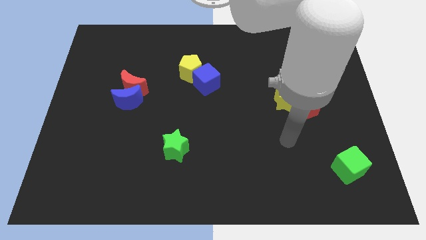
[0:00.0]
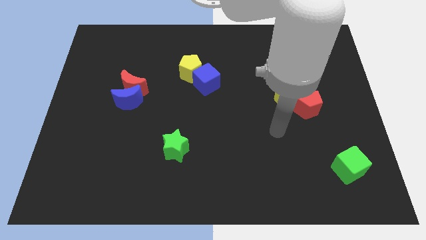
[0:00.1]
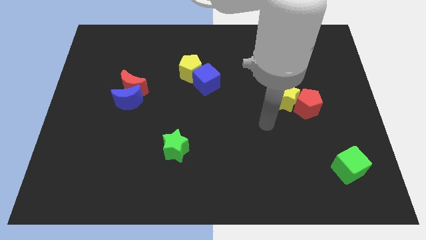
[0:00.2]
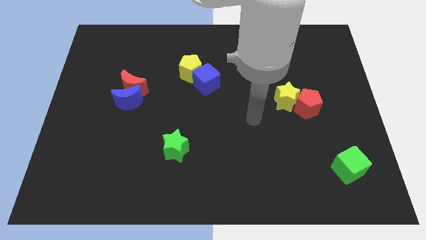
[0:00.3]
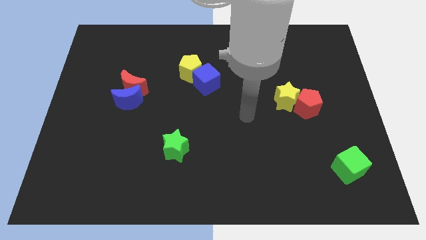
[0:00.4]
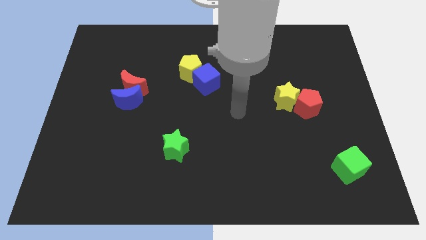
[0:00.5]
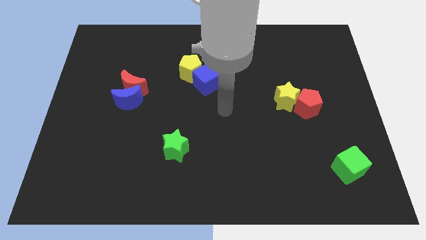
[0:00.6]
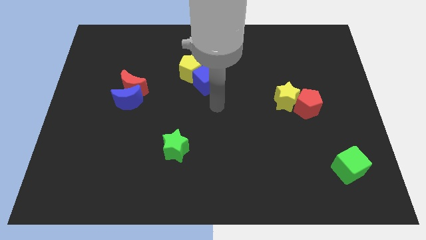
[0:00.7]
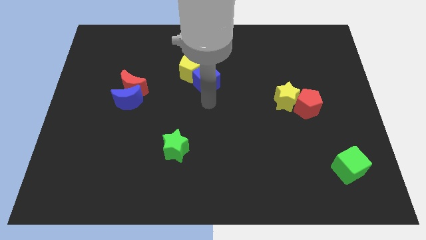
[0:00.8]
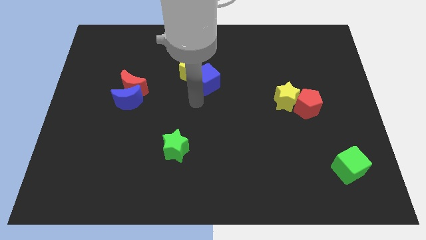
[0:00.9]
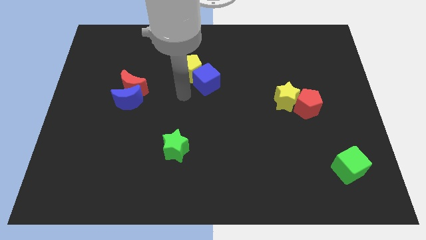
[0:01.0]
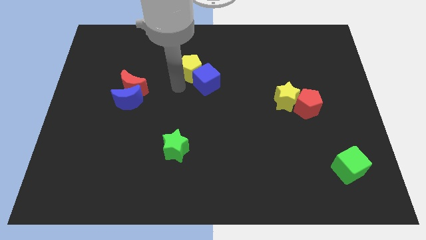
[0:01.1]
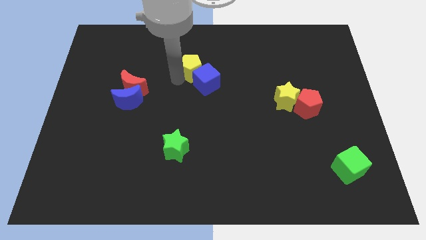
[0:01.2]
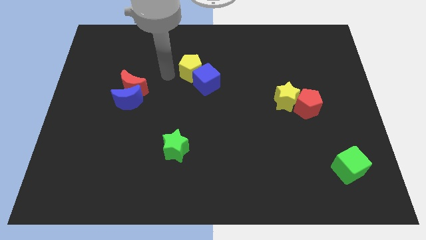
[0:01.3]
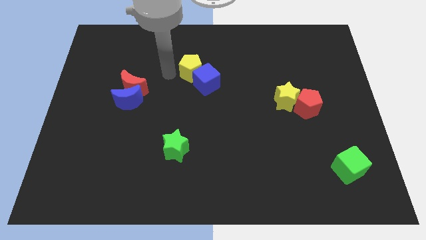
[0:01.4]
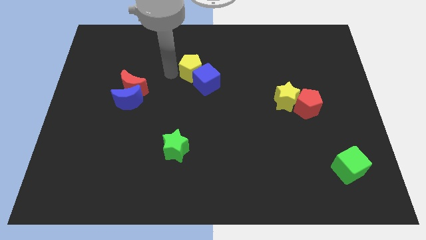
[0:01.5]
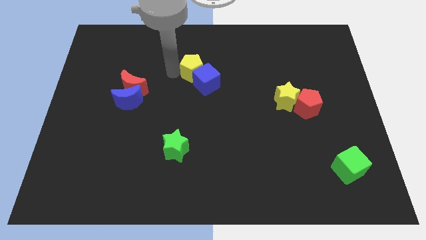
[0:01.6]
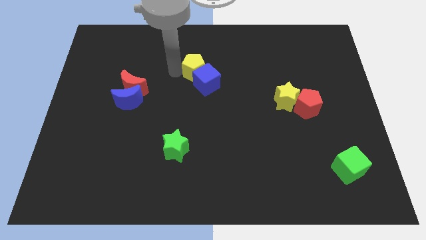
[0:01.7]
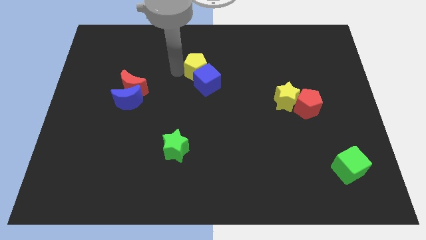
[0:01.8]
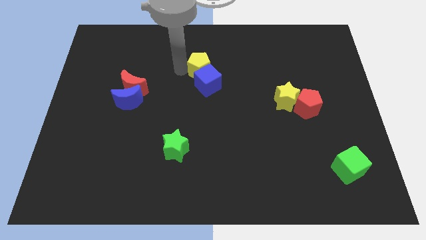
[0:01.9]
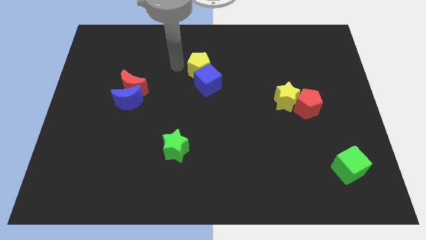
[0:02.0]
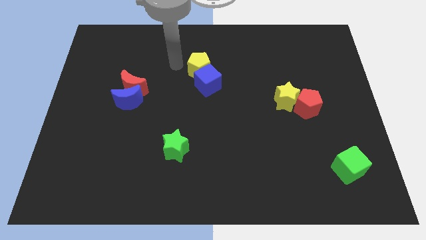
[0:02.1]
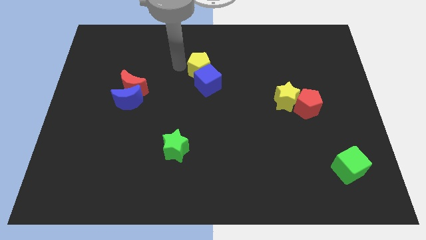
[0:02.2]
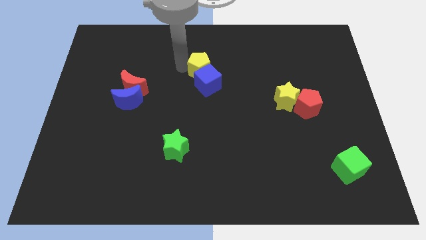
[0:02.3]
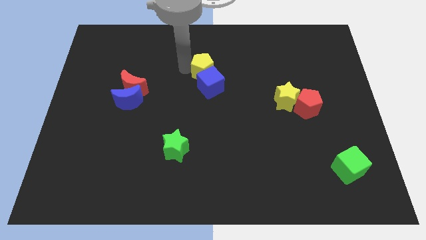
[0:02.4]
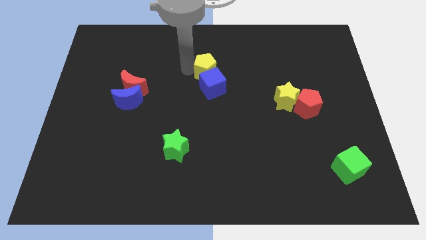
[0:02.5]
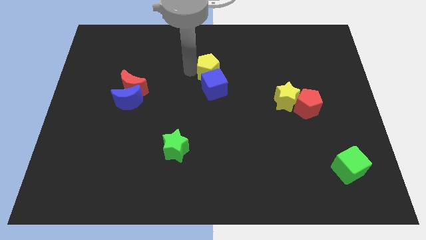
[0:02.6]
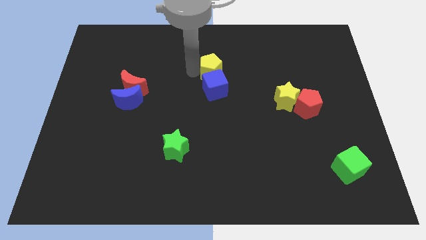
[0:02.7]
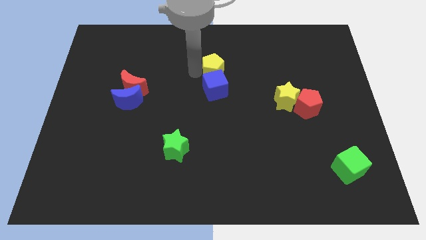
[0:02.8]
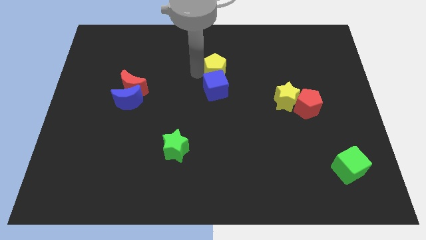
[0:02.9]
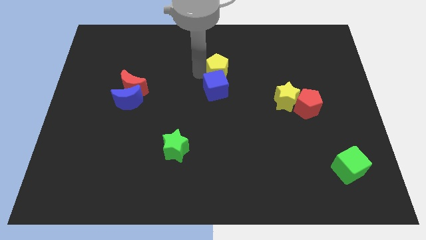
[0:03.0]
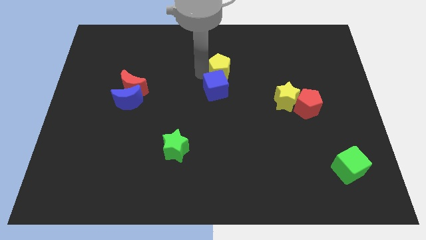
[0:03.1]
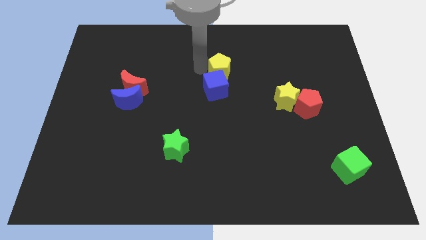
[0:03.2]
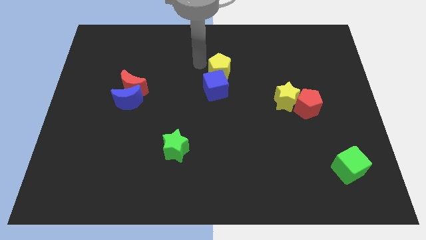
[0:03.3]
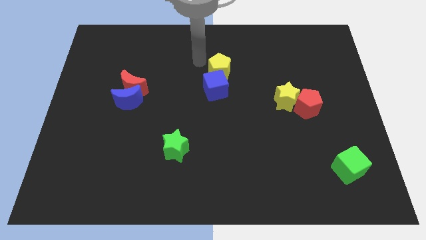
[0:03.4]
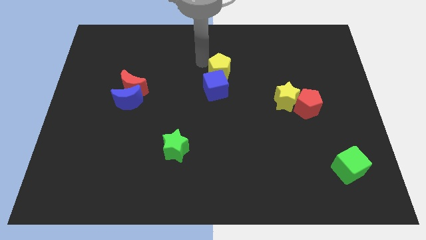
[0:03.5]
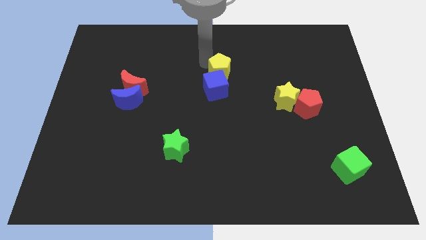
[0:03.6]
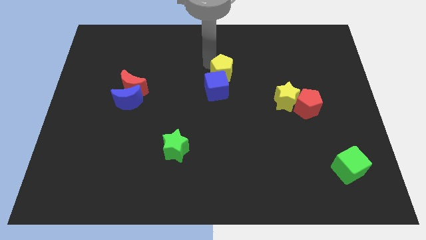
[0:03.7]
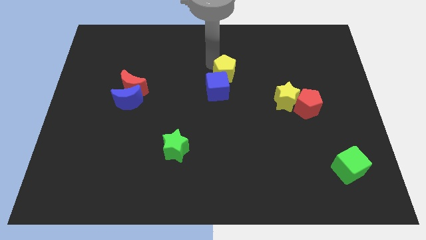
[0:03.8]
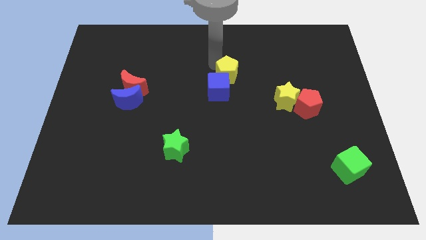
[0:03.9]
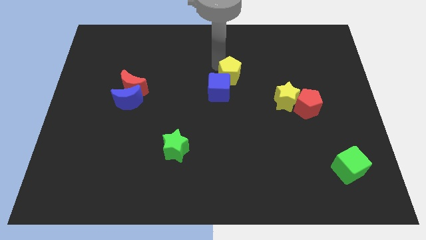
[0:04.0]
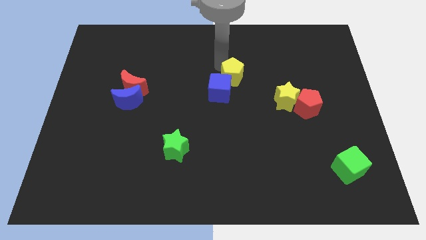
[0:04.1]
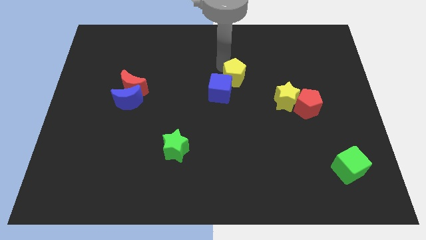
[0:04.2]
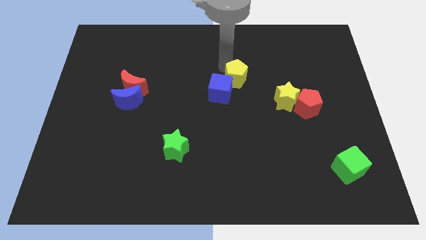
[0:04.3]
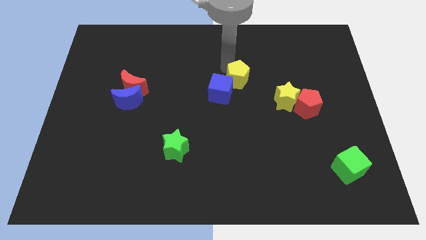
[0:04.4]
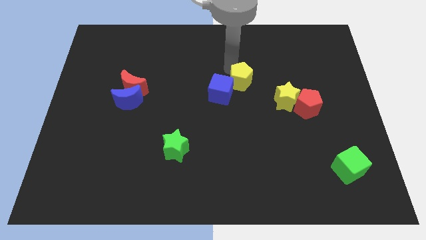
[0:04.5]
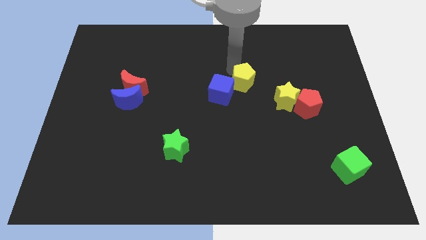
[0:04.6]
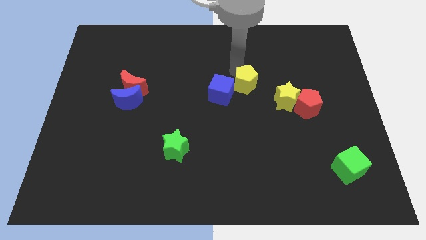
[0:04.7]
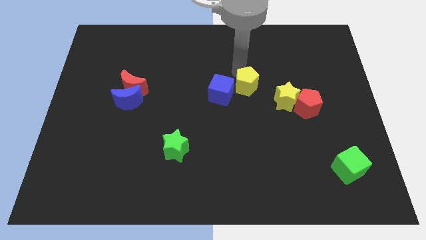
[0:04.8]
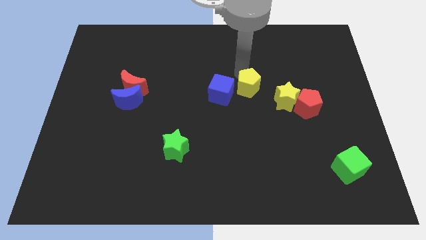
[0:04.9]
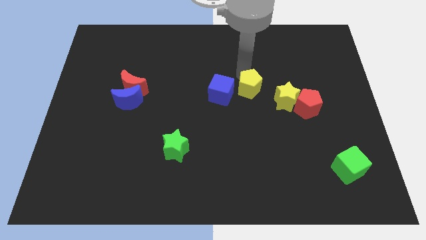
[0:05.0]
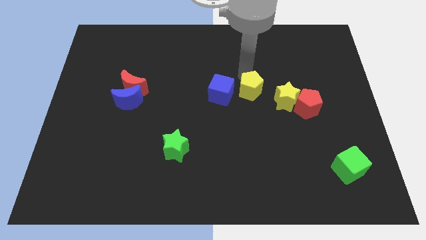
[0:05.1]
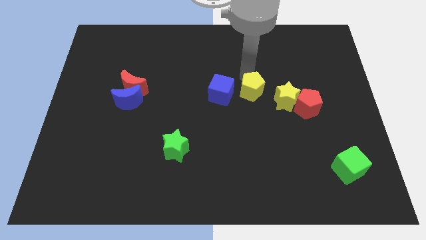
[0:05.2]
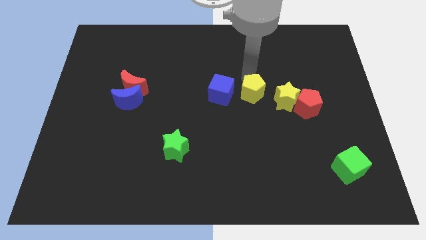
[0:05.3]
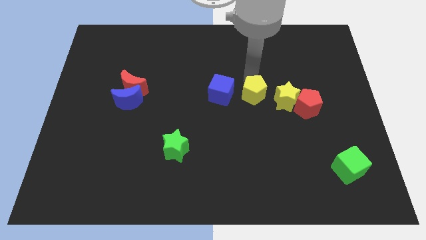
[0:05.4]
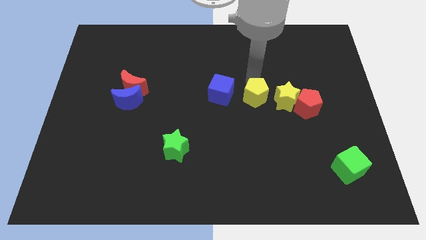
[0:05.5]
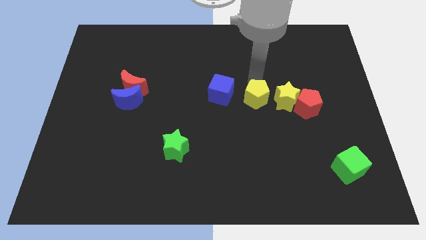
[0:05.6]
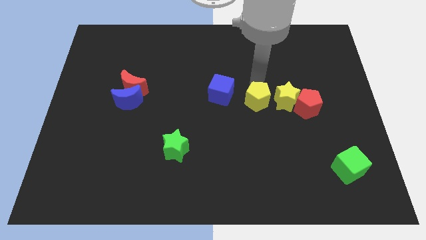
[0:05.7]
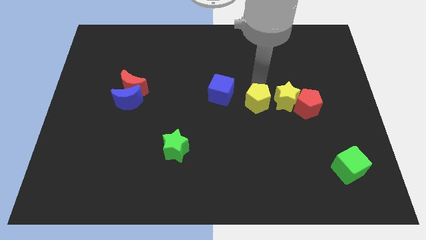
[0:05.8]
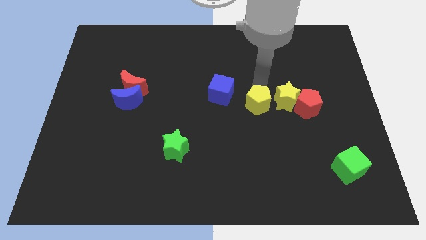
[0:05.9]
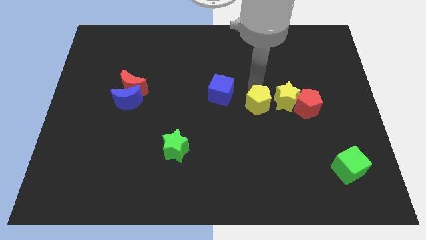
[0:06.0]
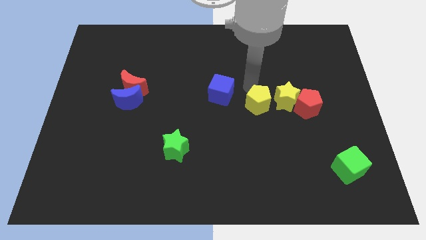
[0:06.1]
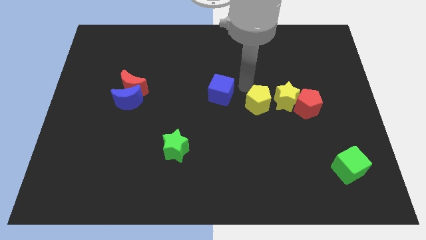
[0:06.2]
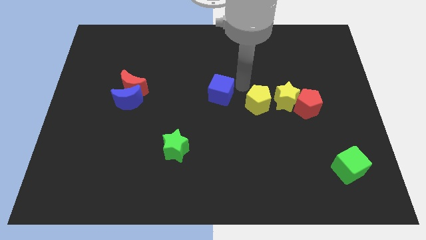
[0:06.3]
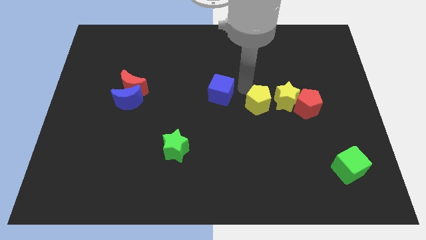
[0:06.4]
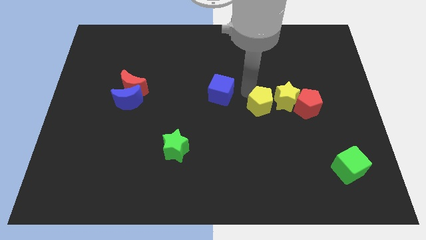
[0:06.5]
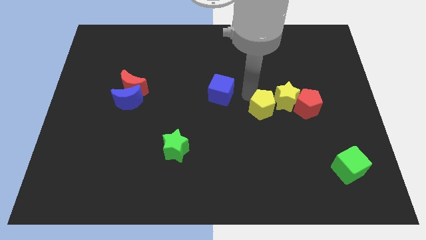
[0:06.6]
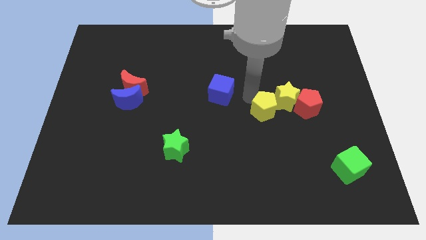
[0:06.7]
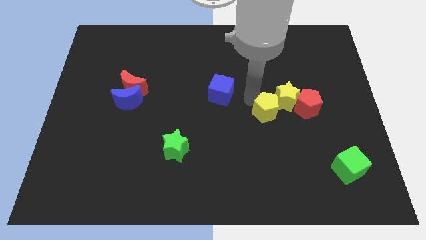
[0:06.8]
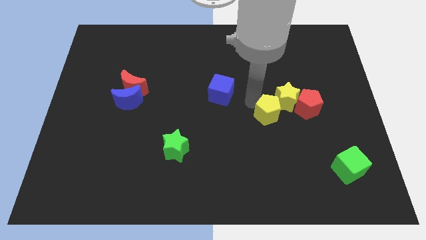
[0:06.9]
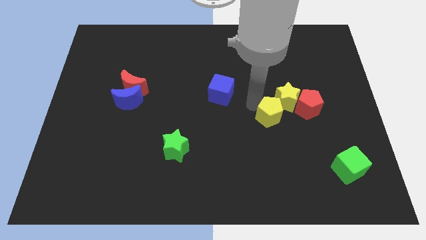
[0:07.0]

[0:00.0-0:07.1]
put the yellow pentagon to the bottom left of the red pentagon

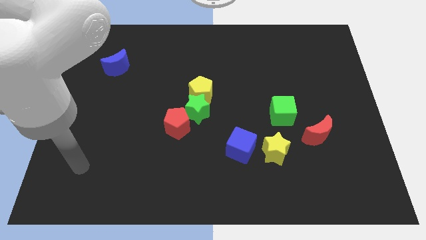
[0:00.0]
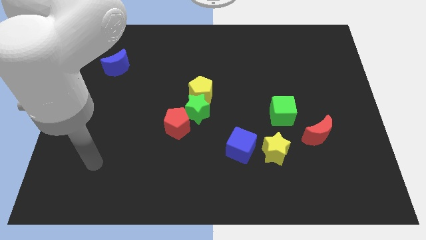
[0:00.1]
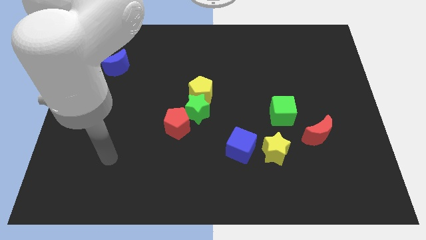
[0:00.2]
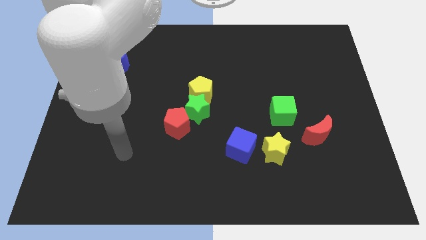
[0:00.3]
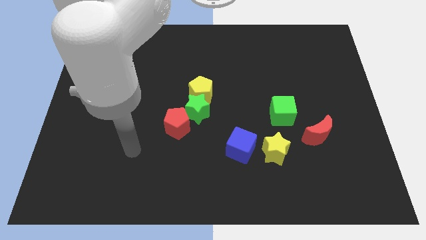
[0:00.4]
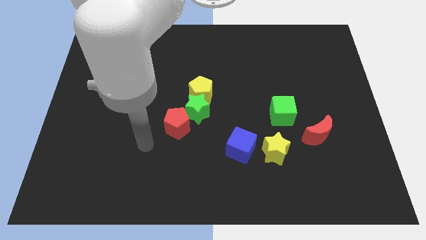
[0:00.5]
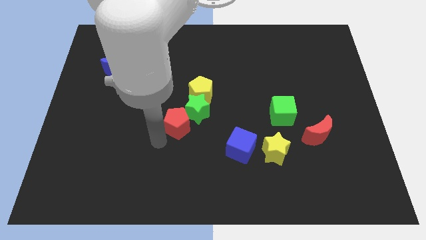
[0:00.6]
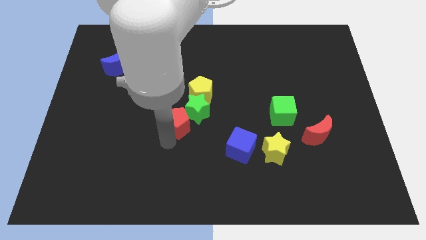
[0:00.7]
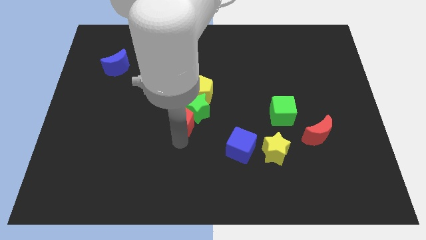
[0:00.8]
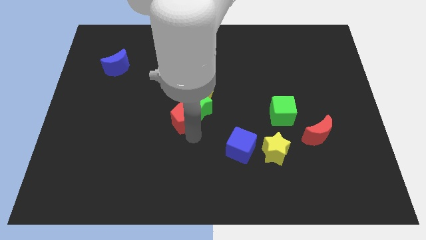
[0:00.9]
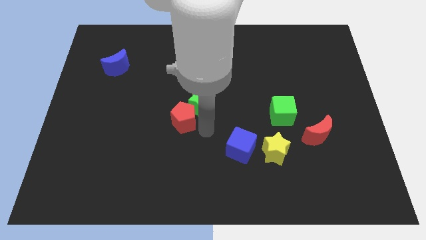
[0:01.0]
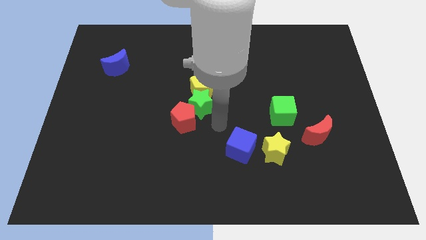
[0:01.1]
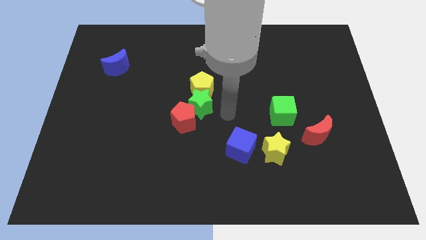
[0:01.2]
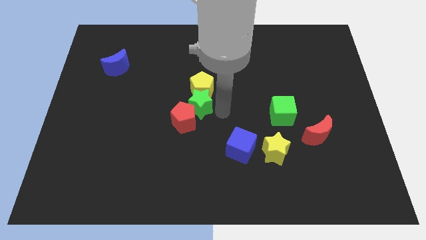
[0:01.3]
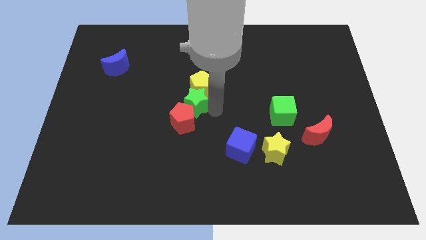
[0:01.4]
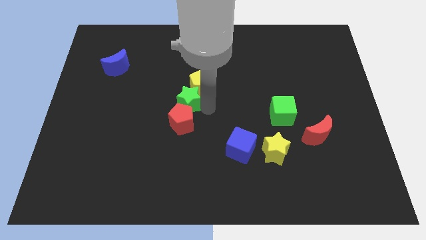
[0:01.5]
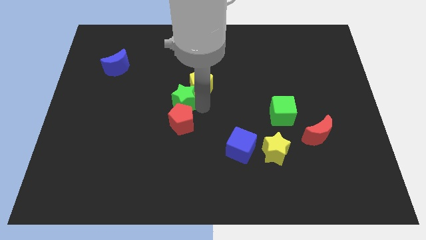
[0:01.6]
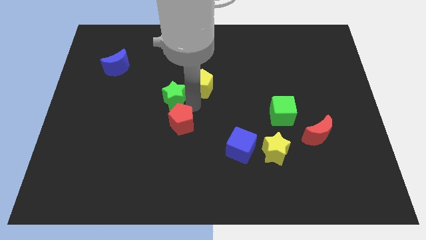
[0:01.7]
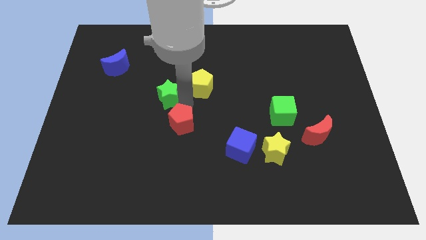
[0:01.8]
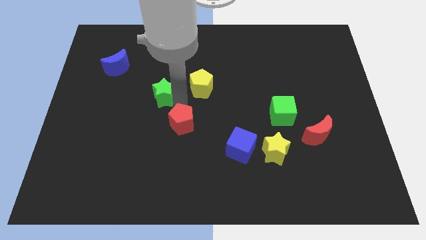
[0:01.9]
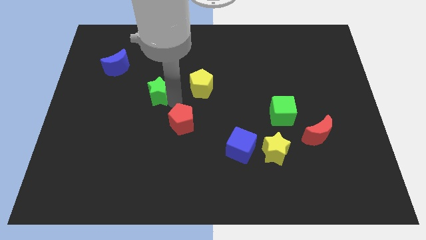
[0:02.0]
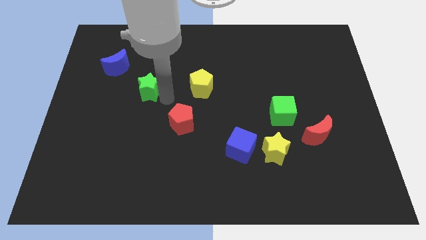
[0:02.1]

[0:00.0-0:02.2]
move the green star to the bottom right side of the blue moon
